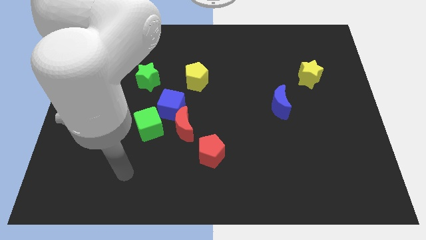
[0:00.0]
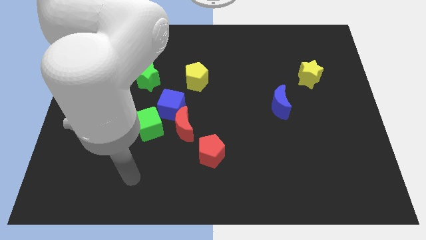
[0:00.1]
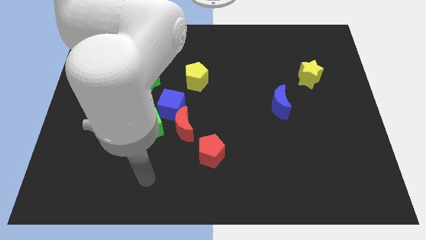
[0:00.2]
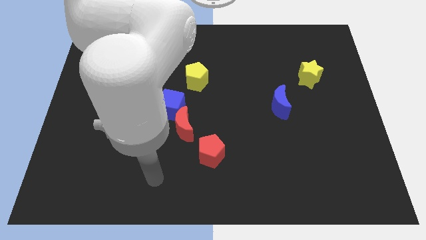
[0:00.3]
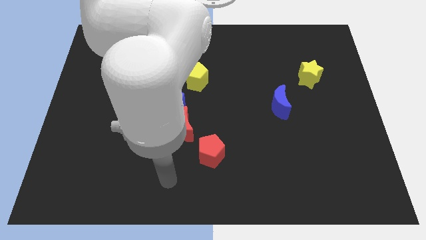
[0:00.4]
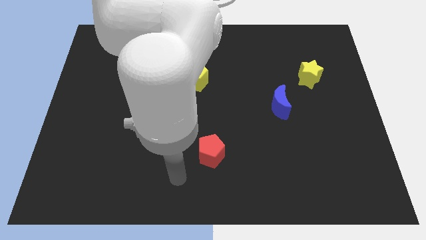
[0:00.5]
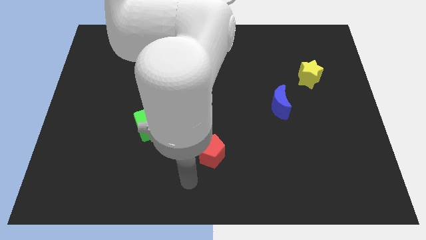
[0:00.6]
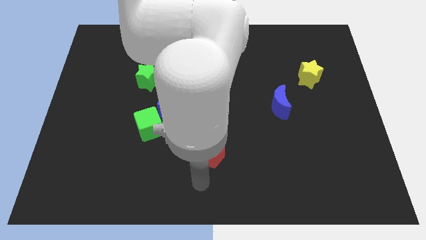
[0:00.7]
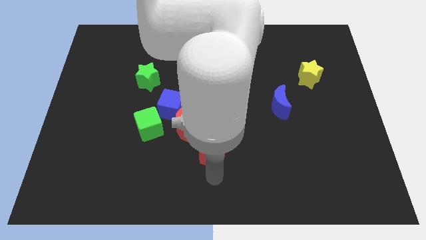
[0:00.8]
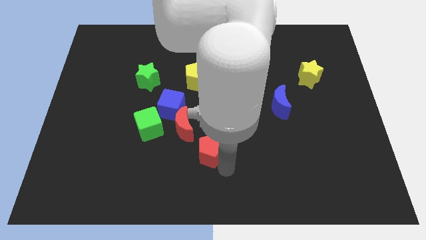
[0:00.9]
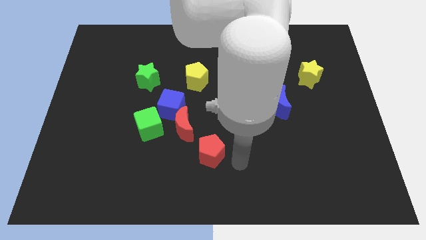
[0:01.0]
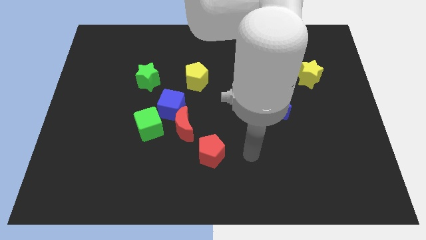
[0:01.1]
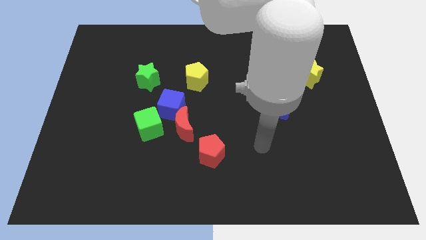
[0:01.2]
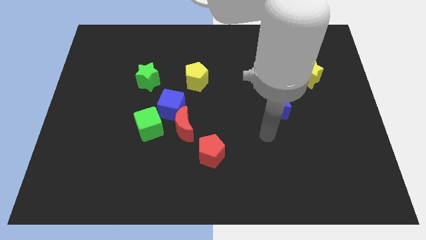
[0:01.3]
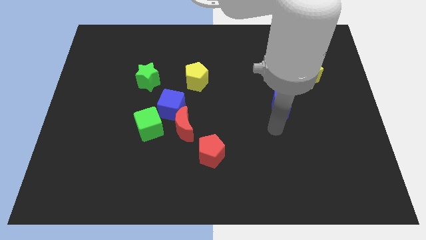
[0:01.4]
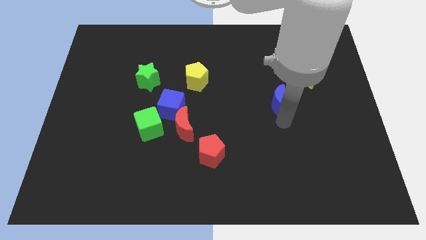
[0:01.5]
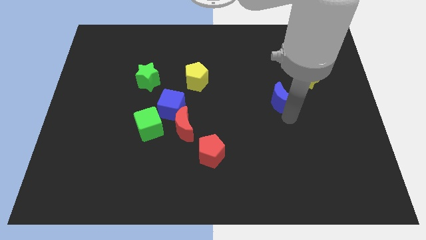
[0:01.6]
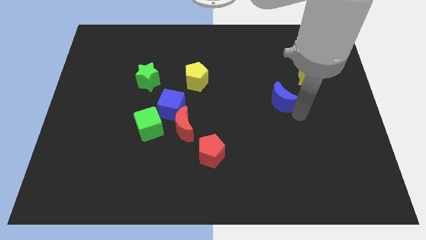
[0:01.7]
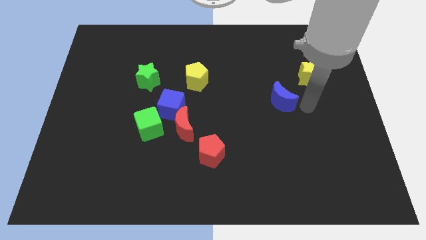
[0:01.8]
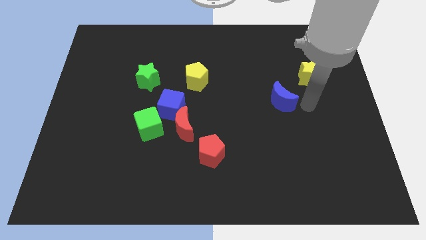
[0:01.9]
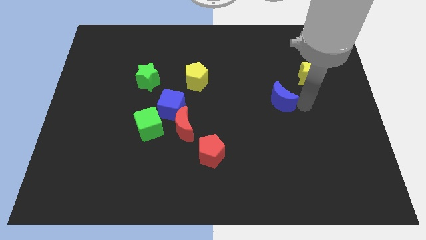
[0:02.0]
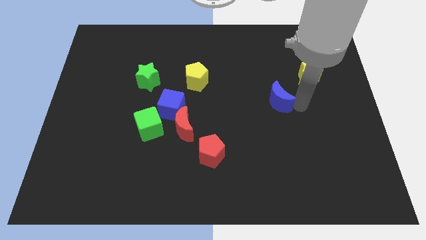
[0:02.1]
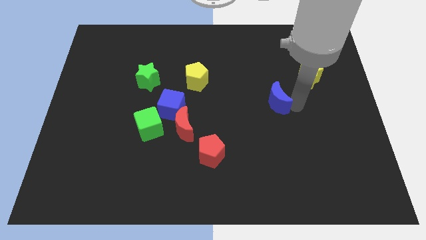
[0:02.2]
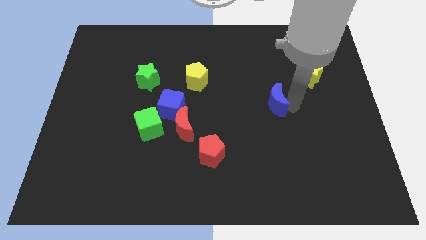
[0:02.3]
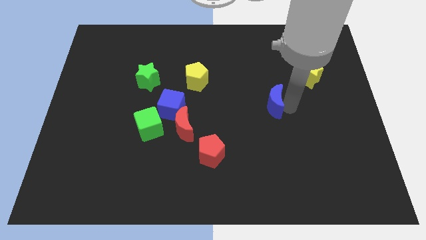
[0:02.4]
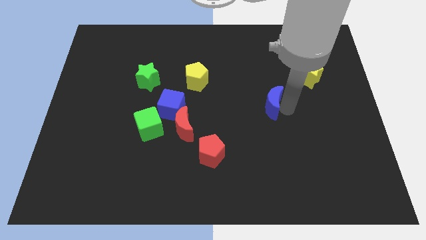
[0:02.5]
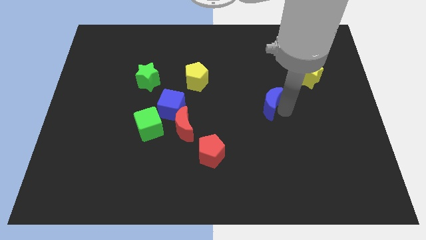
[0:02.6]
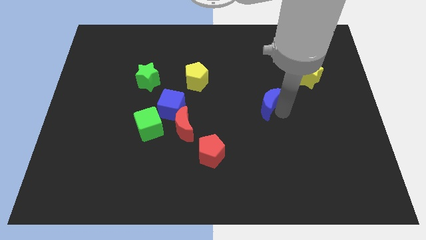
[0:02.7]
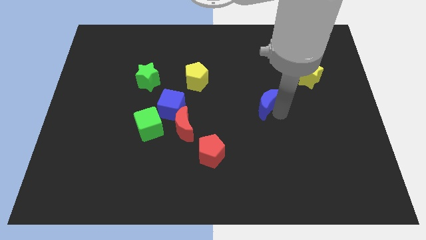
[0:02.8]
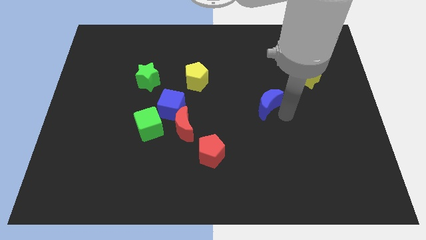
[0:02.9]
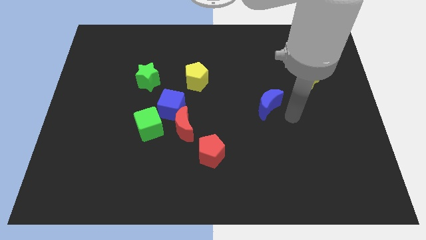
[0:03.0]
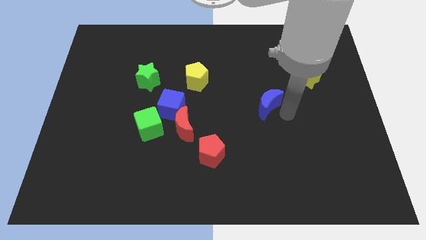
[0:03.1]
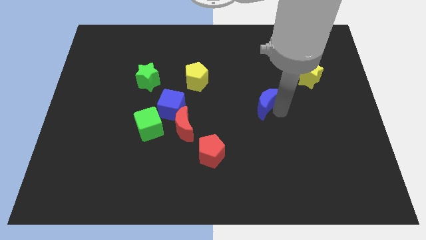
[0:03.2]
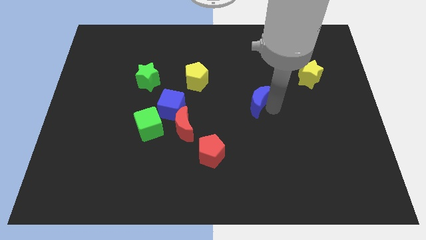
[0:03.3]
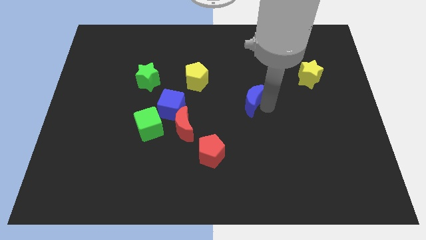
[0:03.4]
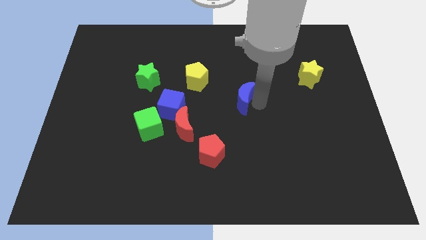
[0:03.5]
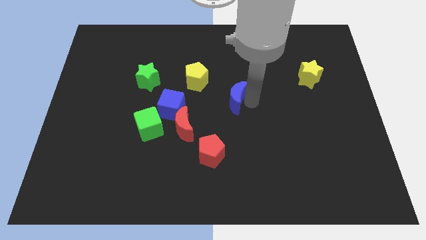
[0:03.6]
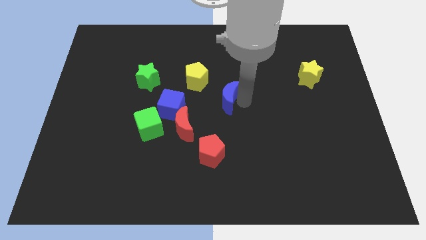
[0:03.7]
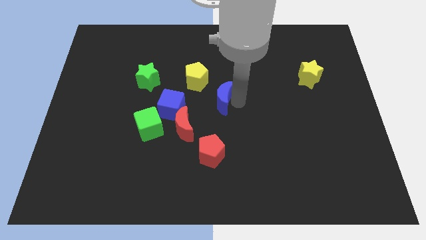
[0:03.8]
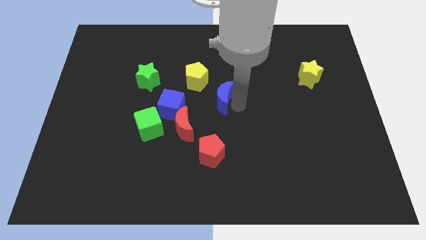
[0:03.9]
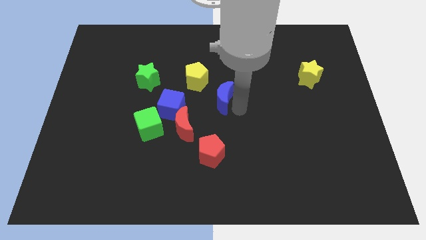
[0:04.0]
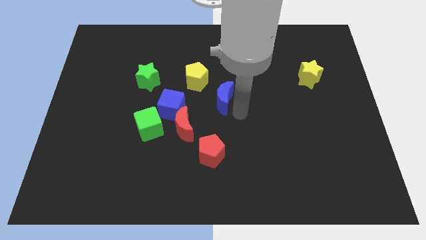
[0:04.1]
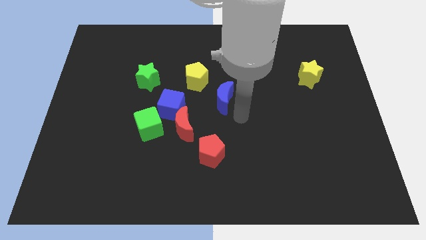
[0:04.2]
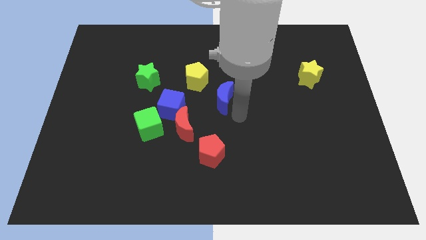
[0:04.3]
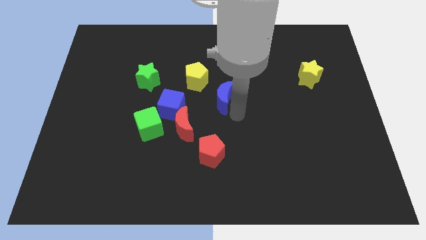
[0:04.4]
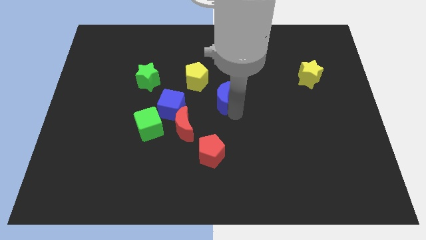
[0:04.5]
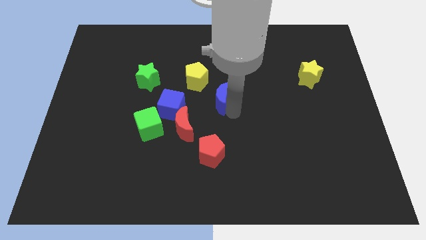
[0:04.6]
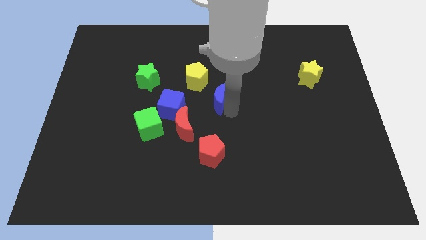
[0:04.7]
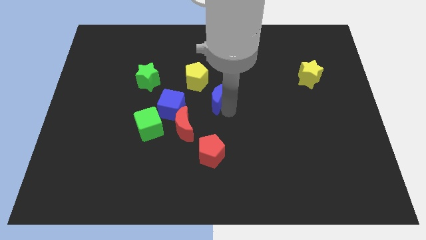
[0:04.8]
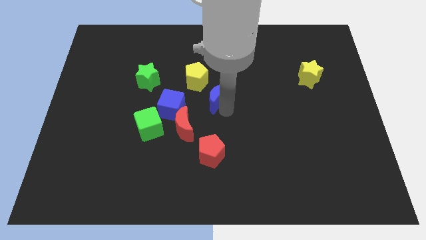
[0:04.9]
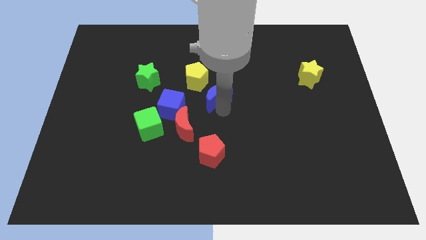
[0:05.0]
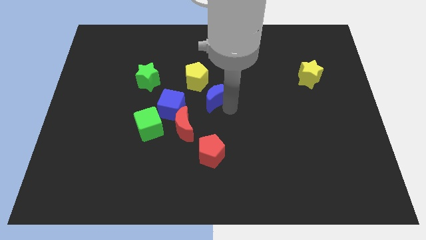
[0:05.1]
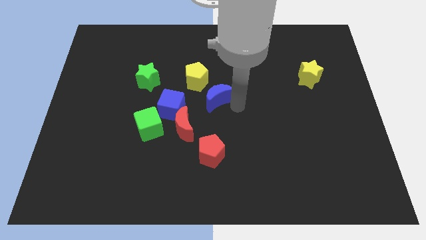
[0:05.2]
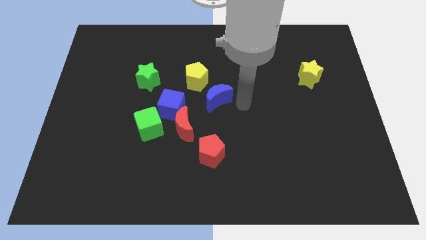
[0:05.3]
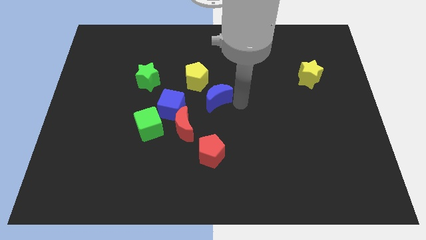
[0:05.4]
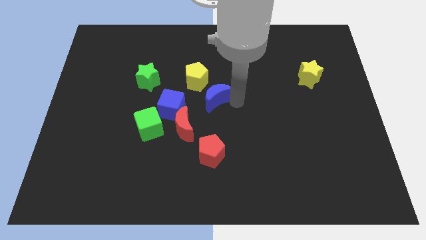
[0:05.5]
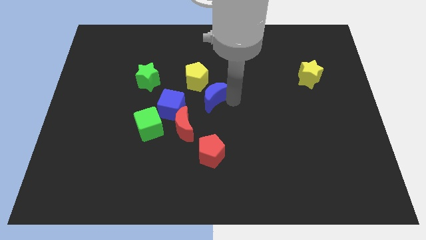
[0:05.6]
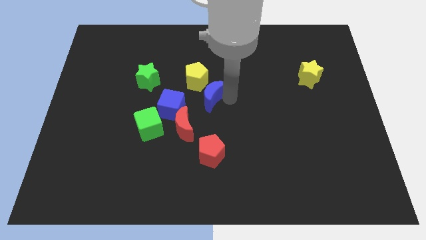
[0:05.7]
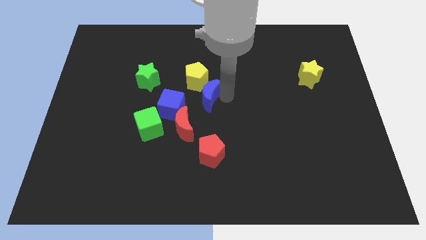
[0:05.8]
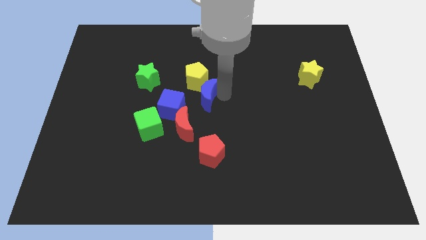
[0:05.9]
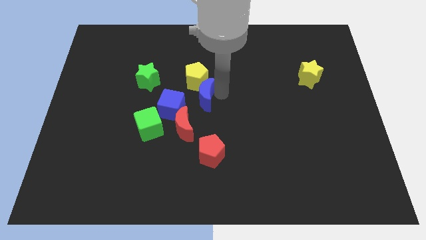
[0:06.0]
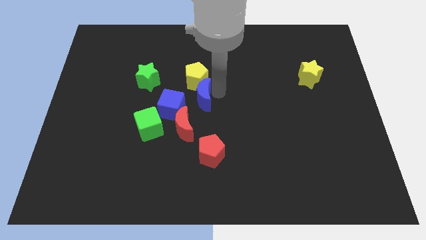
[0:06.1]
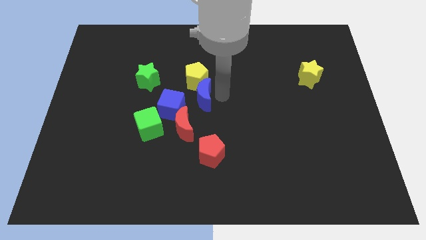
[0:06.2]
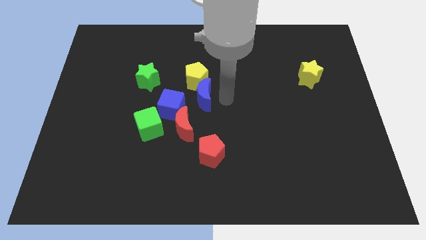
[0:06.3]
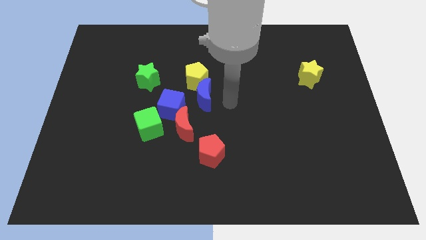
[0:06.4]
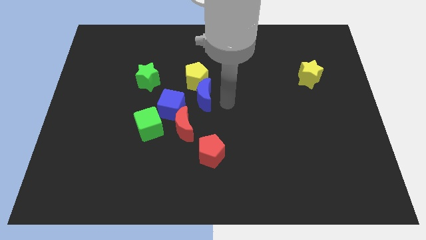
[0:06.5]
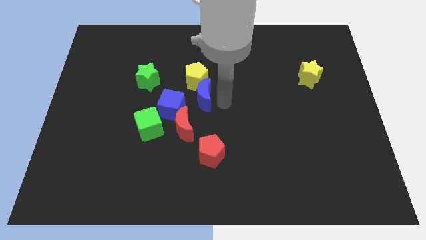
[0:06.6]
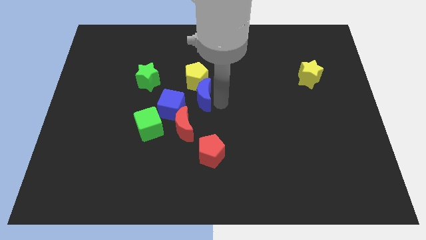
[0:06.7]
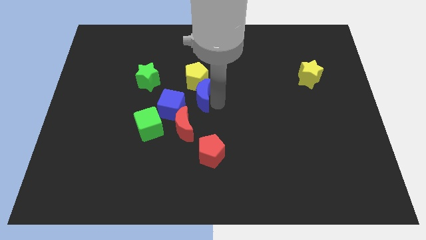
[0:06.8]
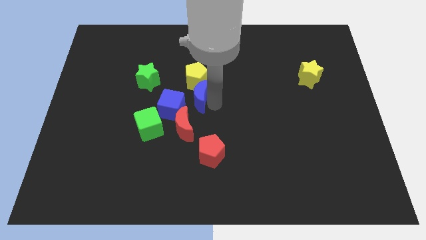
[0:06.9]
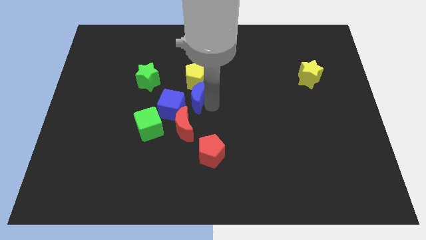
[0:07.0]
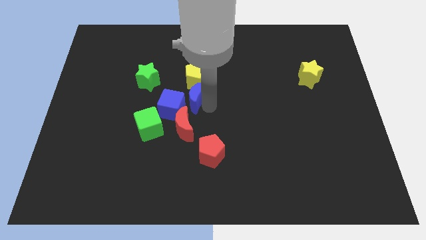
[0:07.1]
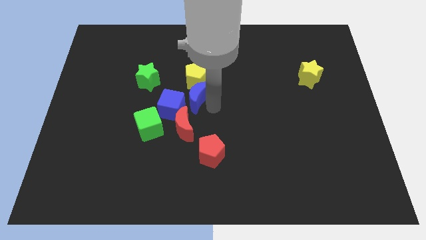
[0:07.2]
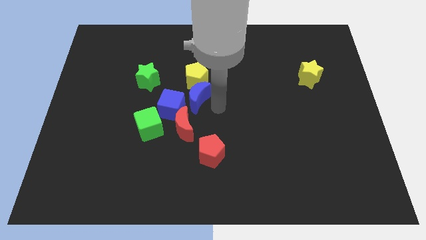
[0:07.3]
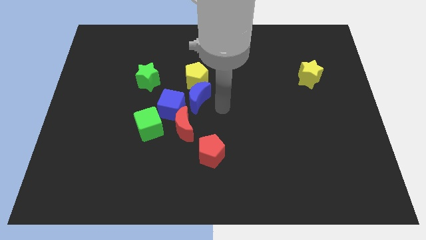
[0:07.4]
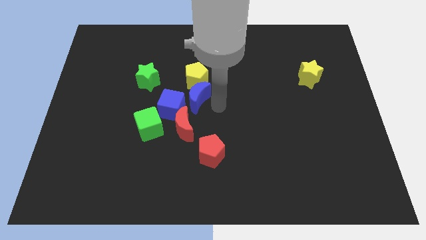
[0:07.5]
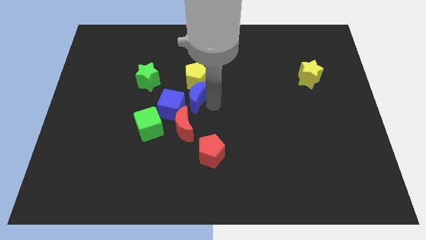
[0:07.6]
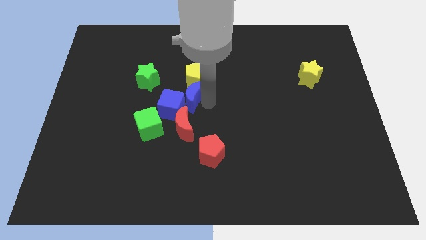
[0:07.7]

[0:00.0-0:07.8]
slide the blue moon to the left
